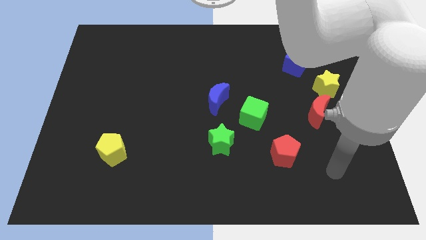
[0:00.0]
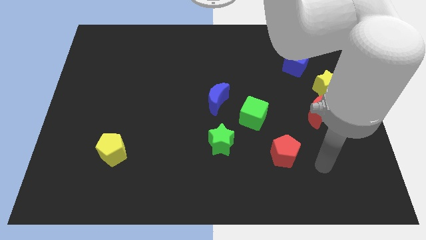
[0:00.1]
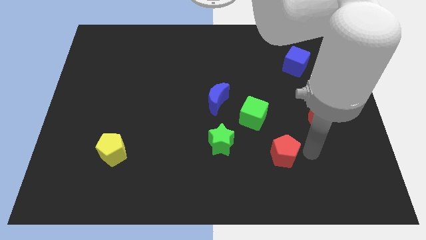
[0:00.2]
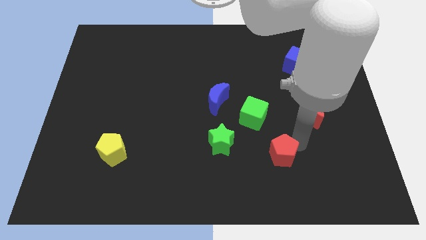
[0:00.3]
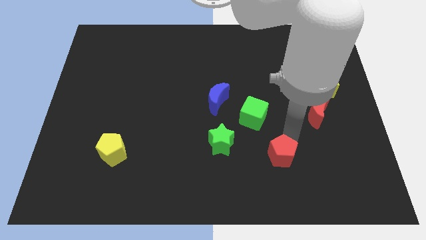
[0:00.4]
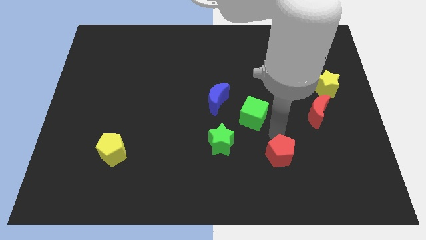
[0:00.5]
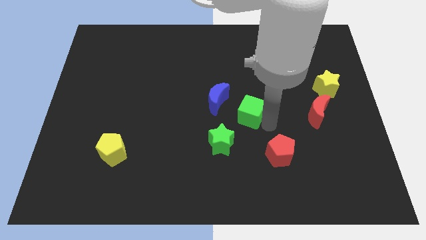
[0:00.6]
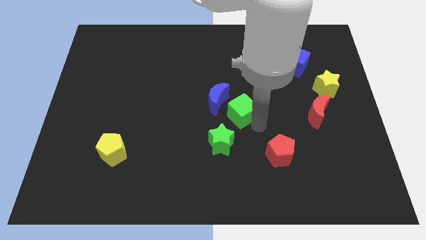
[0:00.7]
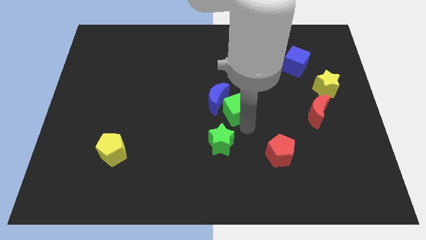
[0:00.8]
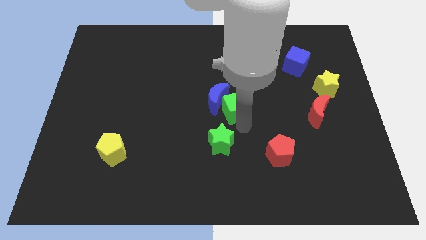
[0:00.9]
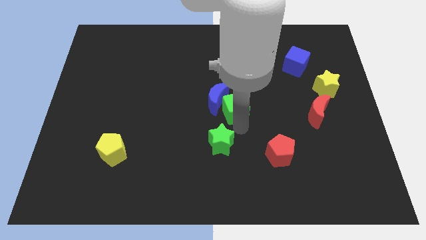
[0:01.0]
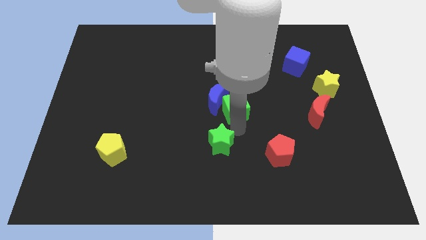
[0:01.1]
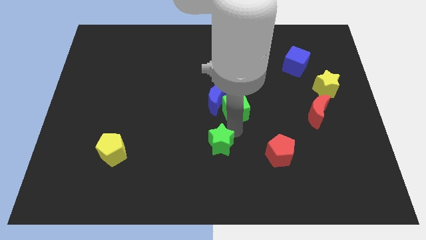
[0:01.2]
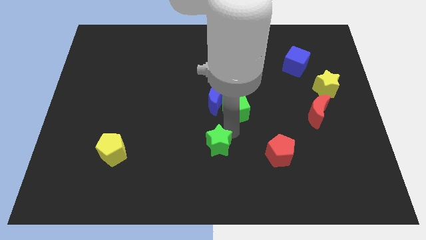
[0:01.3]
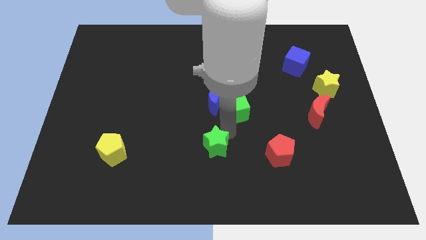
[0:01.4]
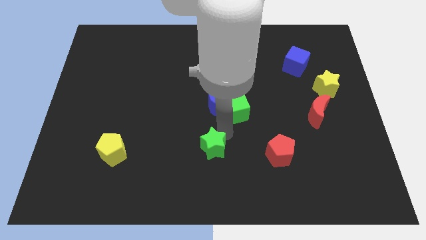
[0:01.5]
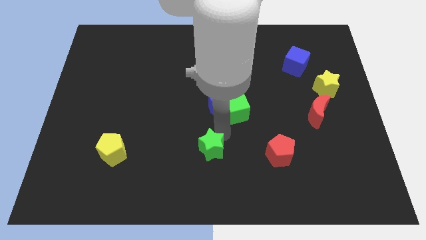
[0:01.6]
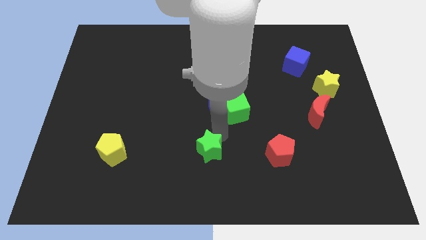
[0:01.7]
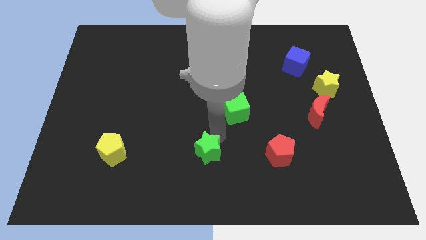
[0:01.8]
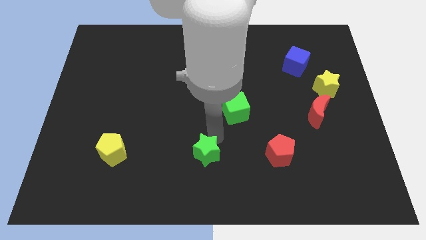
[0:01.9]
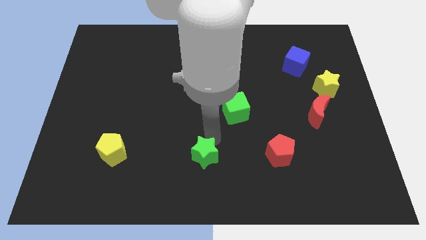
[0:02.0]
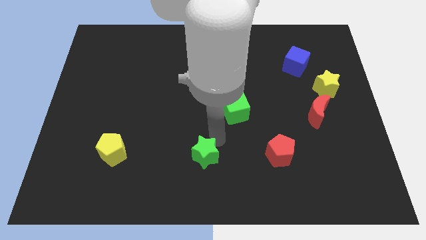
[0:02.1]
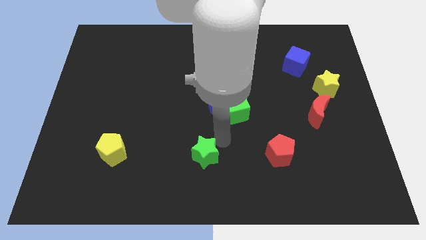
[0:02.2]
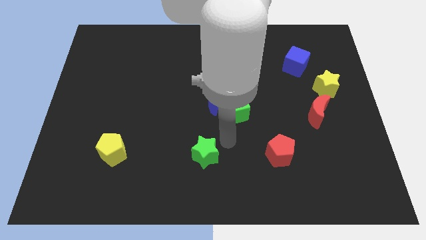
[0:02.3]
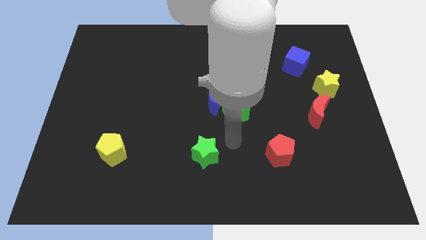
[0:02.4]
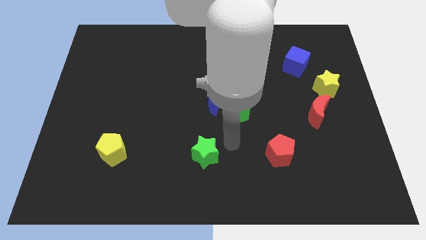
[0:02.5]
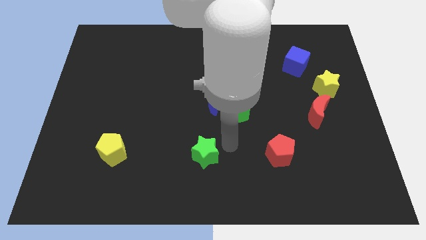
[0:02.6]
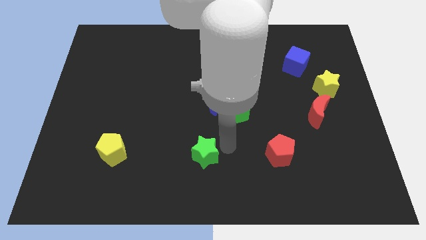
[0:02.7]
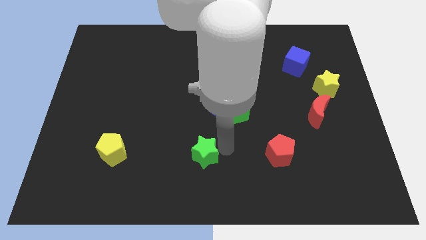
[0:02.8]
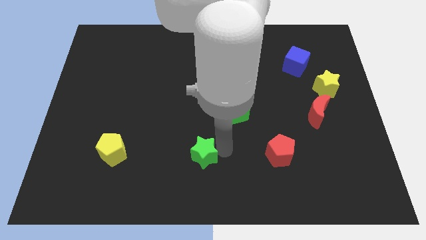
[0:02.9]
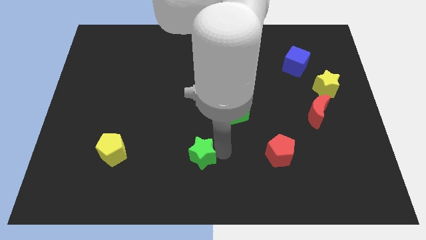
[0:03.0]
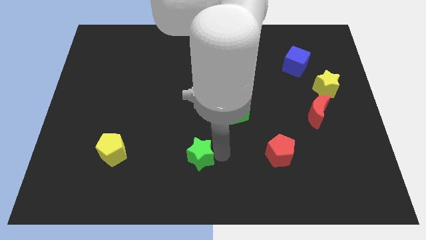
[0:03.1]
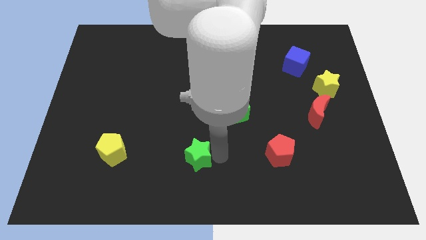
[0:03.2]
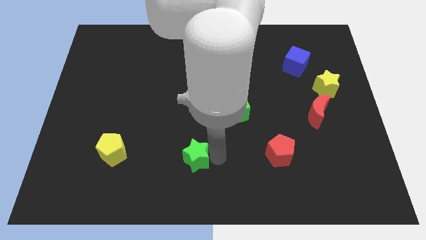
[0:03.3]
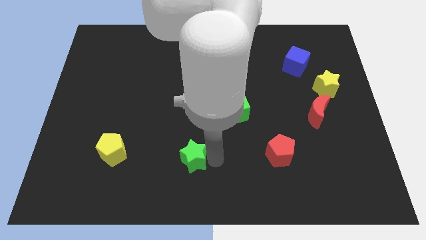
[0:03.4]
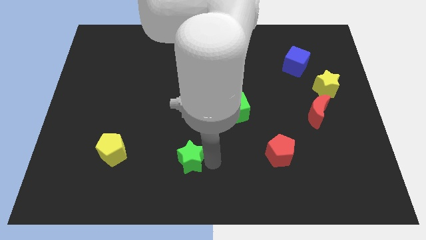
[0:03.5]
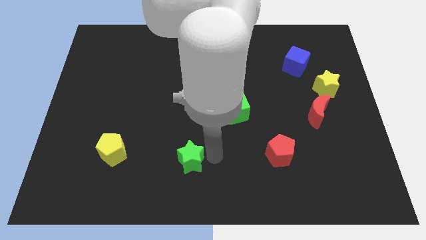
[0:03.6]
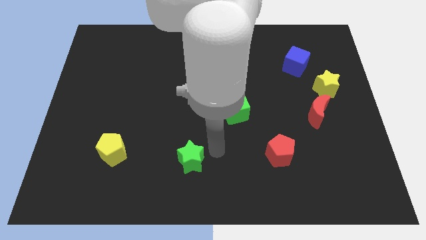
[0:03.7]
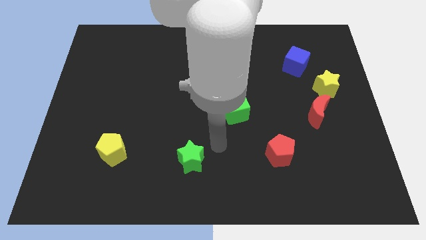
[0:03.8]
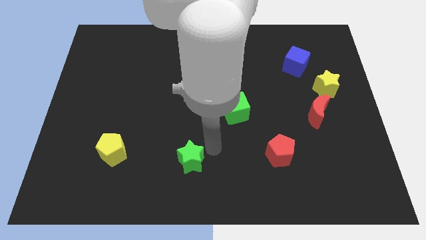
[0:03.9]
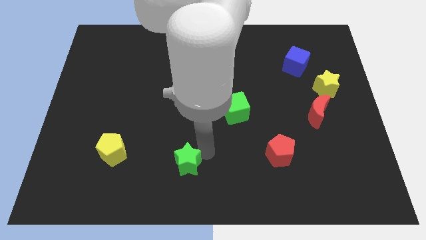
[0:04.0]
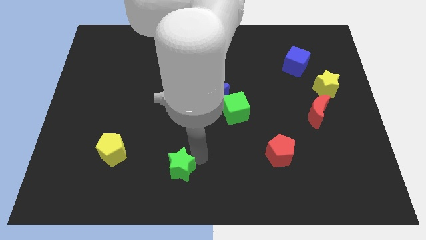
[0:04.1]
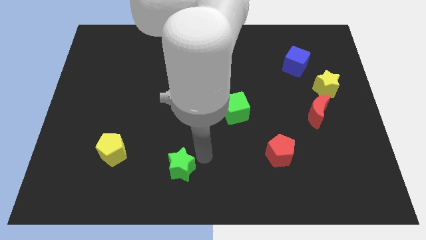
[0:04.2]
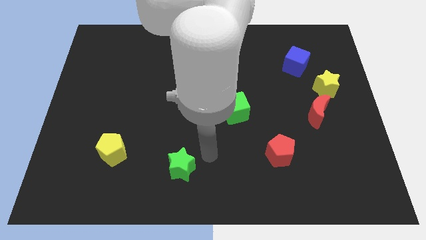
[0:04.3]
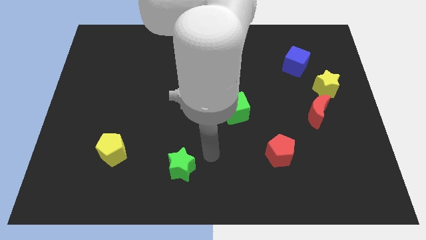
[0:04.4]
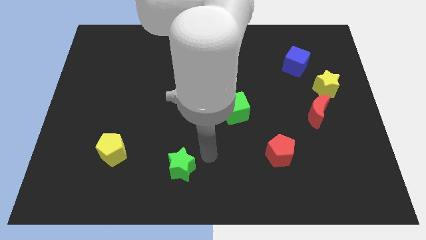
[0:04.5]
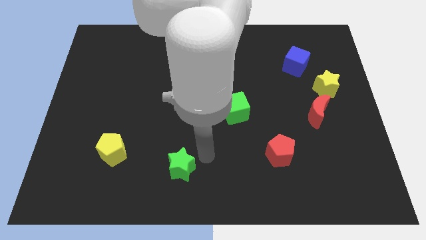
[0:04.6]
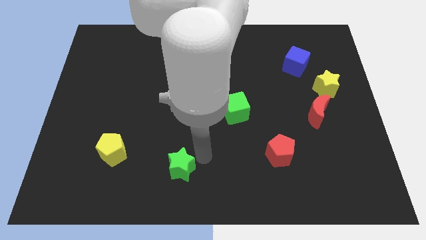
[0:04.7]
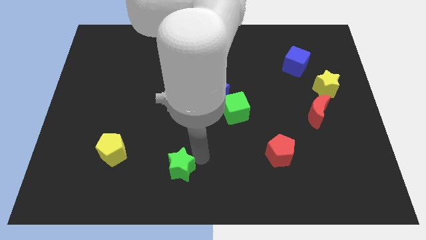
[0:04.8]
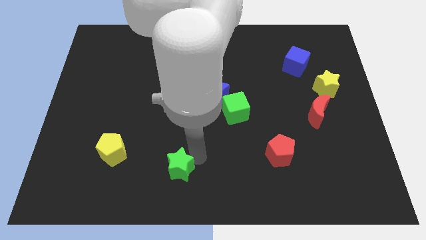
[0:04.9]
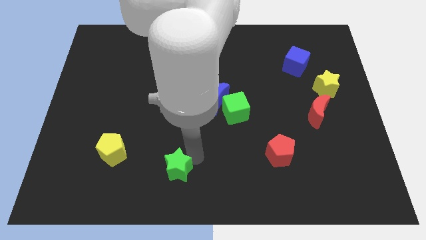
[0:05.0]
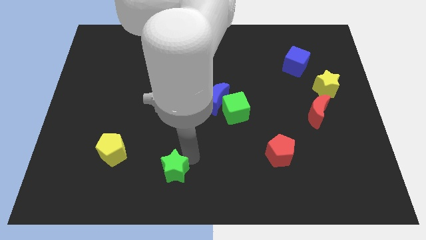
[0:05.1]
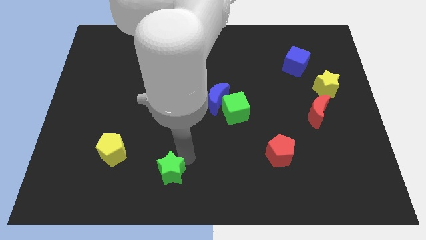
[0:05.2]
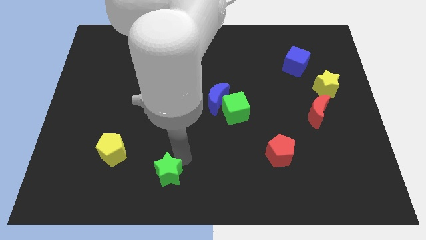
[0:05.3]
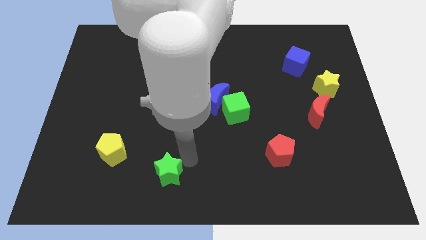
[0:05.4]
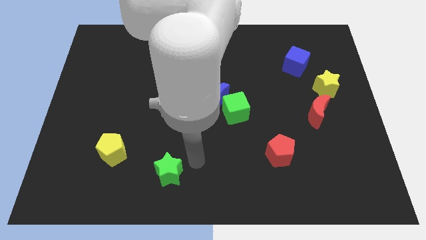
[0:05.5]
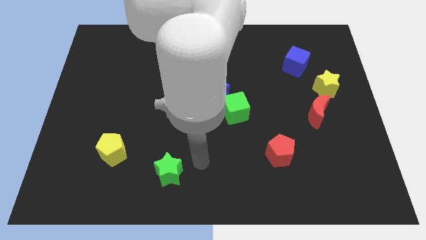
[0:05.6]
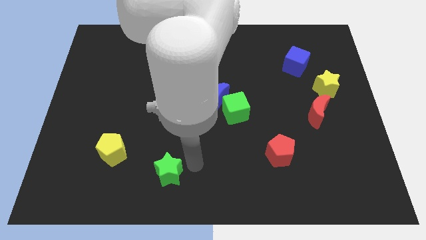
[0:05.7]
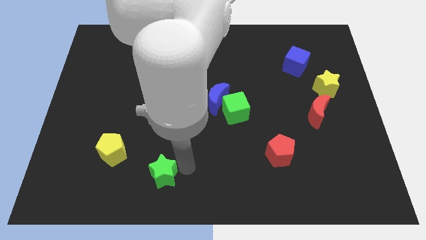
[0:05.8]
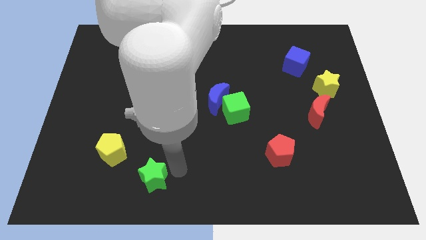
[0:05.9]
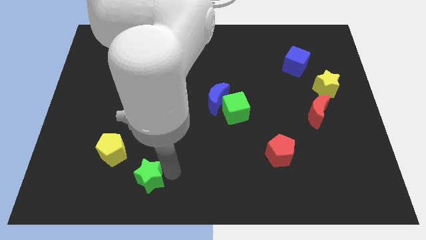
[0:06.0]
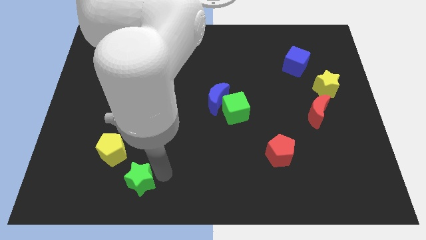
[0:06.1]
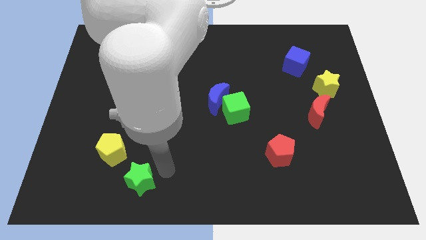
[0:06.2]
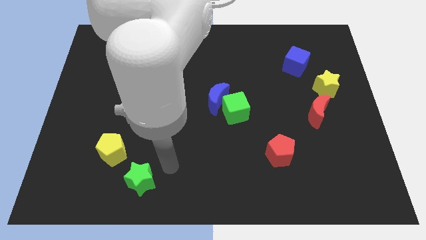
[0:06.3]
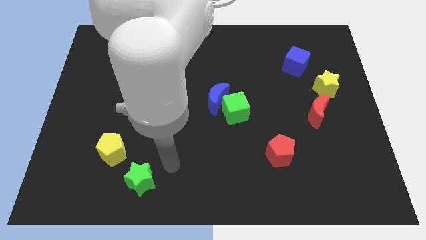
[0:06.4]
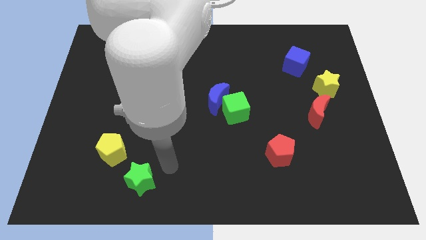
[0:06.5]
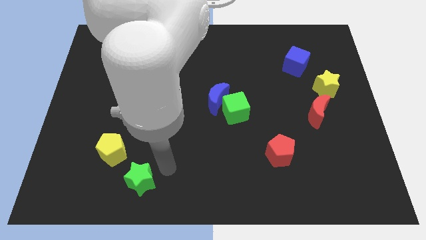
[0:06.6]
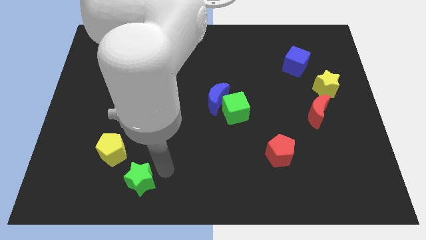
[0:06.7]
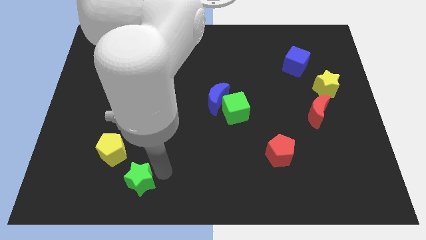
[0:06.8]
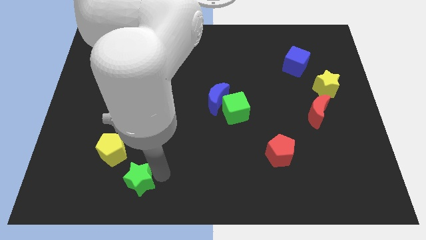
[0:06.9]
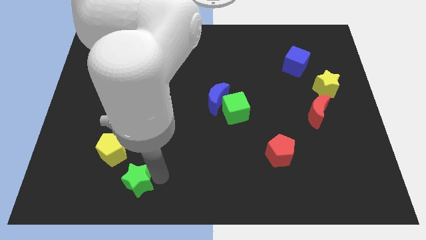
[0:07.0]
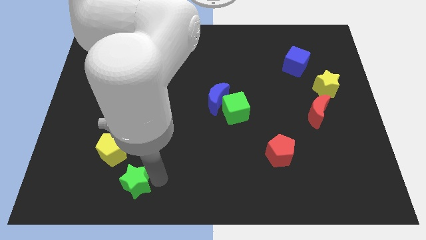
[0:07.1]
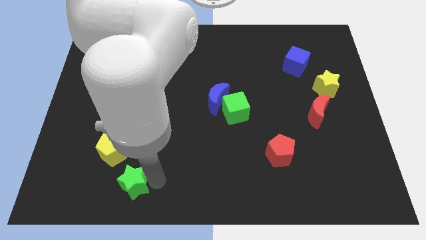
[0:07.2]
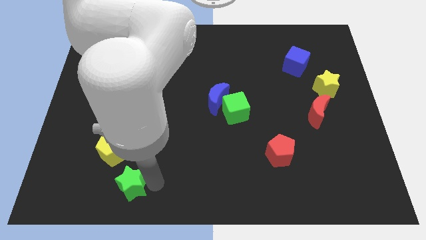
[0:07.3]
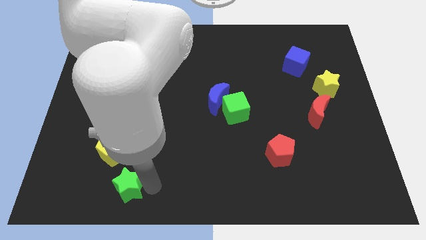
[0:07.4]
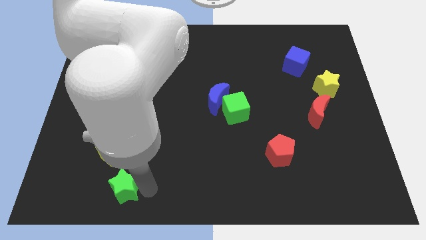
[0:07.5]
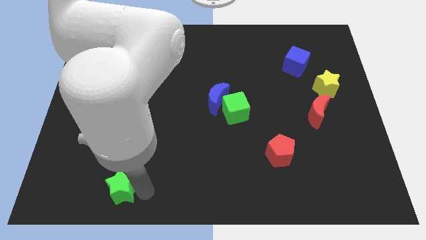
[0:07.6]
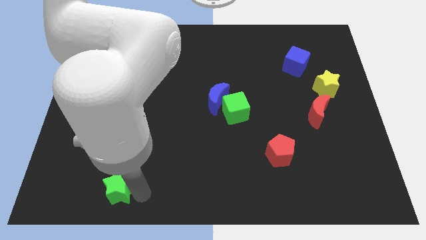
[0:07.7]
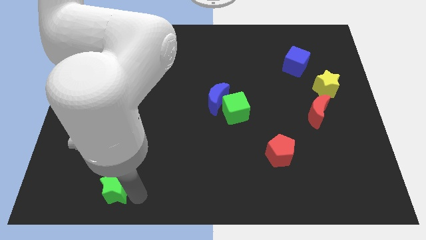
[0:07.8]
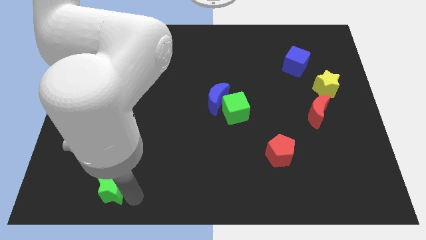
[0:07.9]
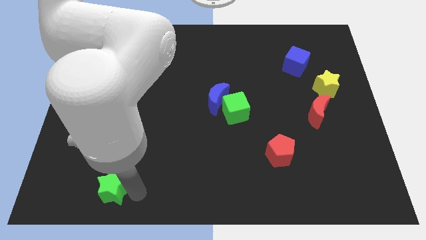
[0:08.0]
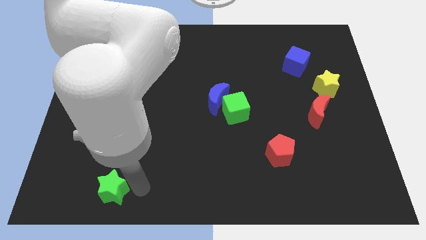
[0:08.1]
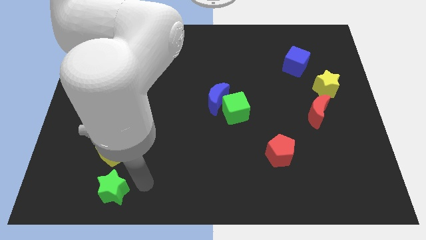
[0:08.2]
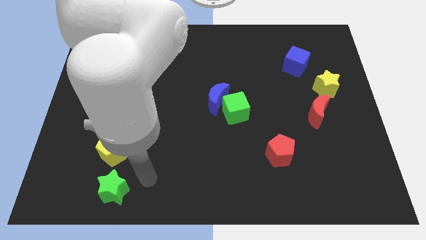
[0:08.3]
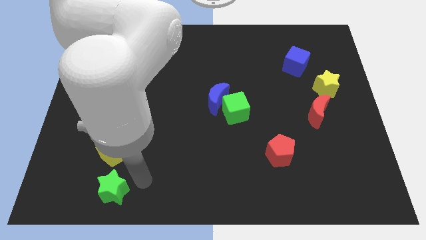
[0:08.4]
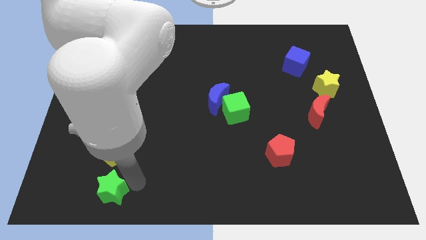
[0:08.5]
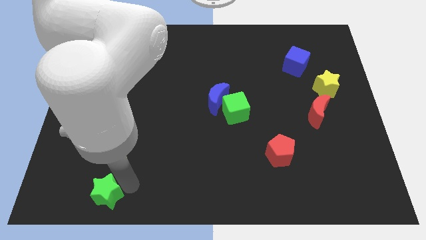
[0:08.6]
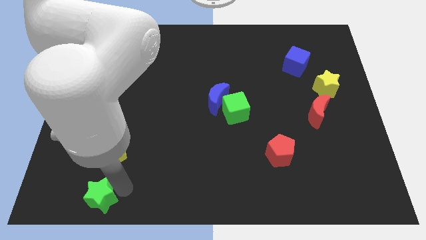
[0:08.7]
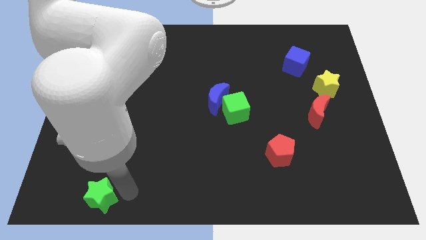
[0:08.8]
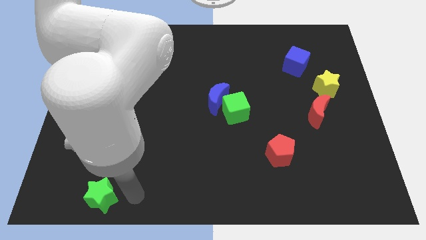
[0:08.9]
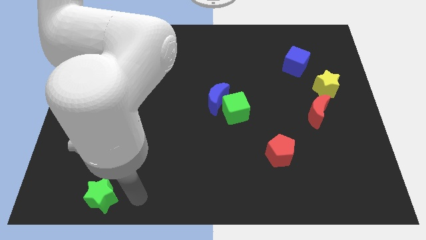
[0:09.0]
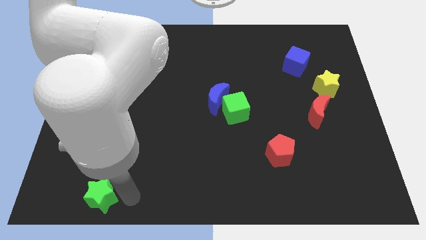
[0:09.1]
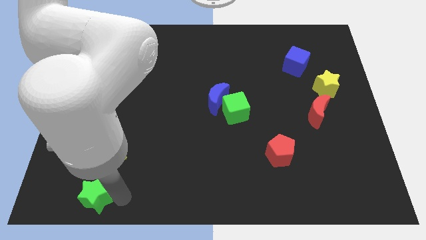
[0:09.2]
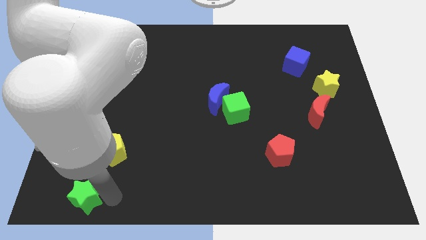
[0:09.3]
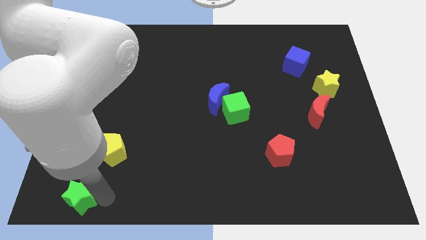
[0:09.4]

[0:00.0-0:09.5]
slide the green star to the bottom left
